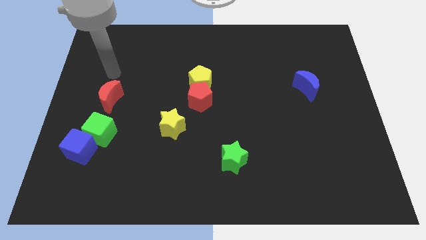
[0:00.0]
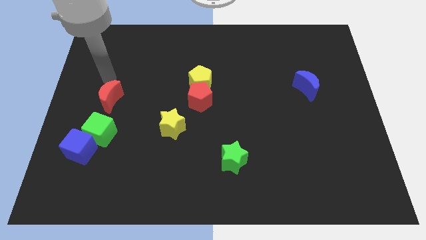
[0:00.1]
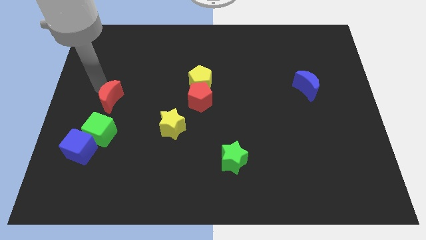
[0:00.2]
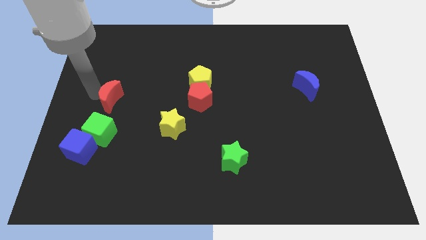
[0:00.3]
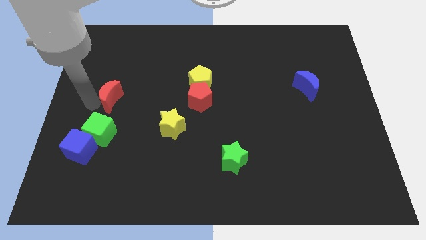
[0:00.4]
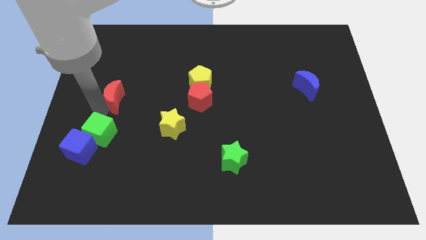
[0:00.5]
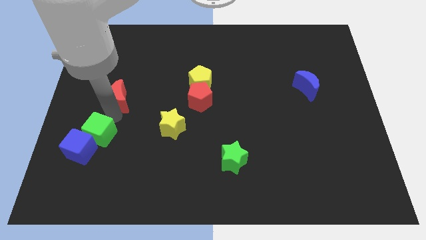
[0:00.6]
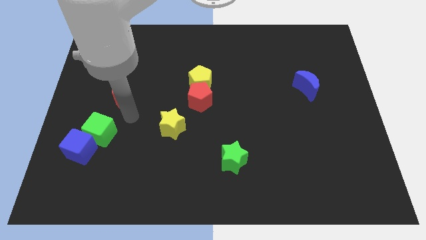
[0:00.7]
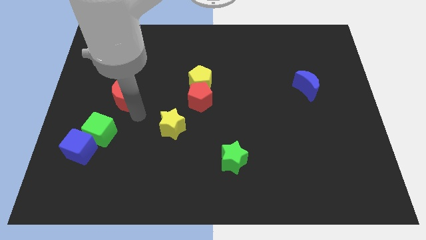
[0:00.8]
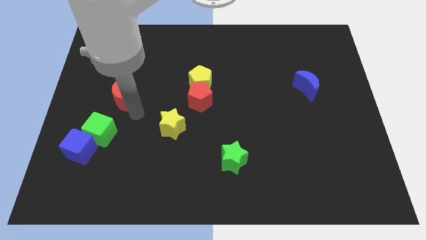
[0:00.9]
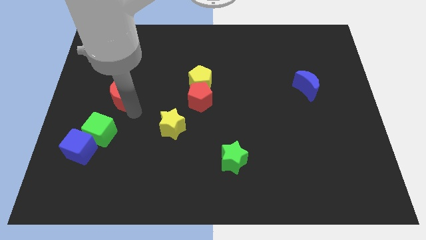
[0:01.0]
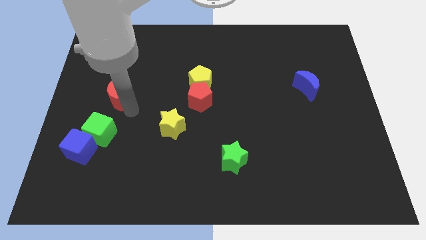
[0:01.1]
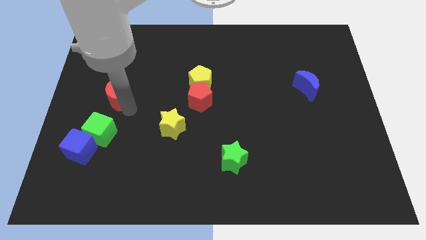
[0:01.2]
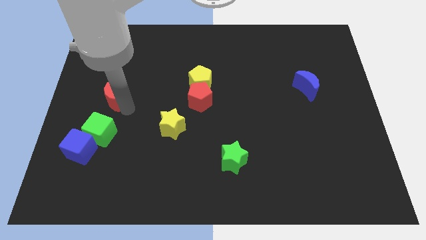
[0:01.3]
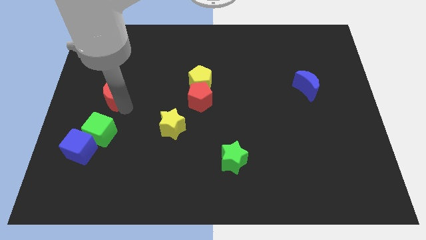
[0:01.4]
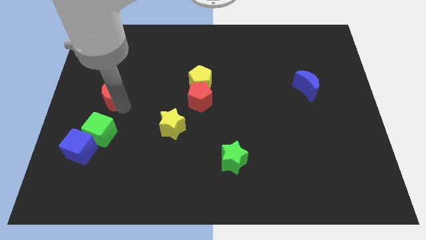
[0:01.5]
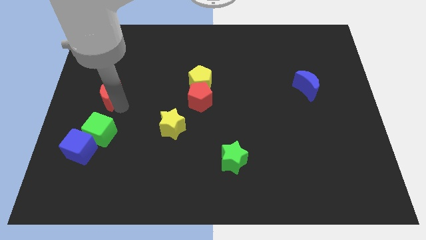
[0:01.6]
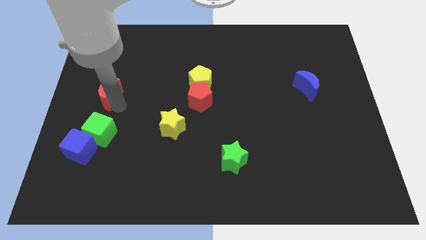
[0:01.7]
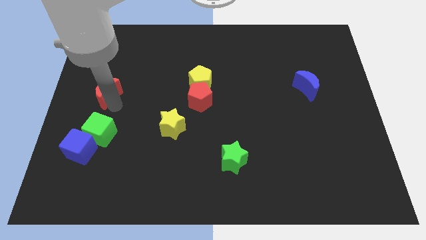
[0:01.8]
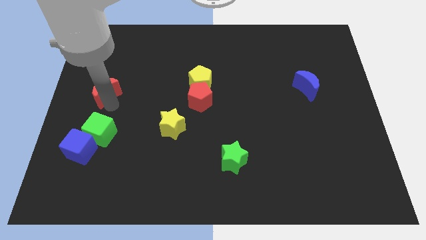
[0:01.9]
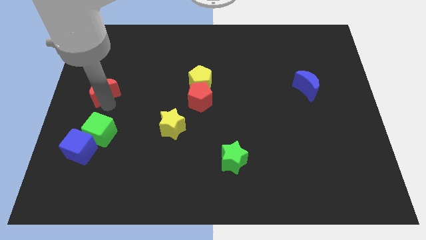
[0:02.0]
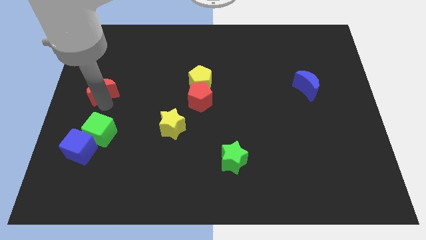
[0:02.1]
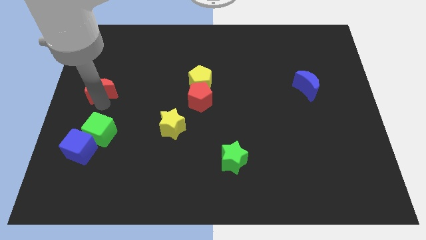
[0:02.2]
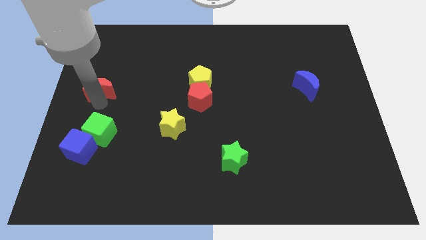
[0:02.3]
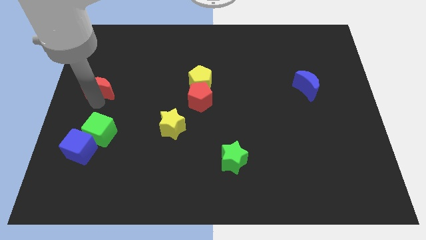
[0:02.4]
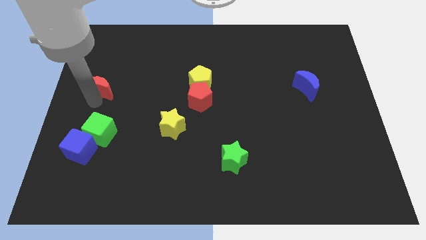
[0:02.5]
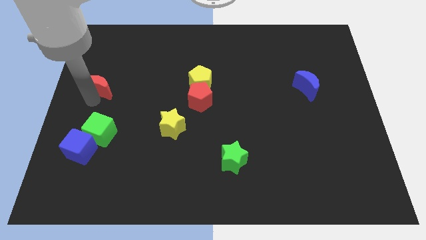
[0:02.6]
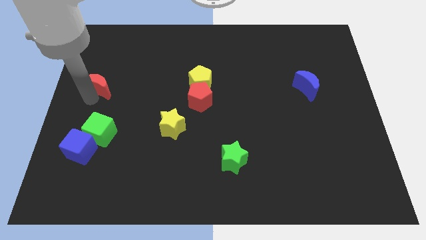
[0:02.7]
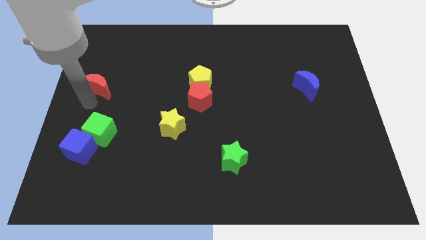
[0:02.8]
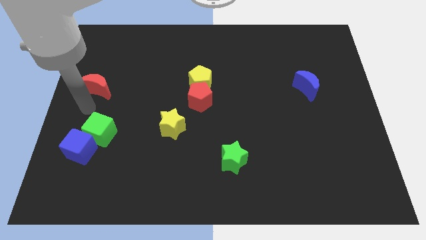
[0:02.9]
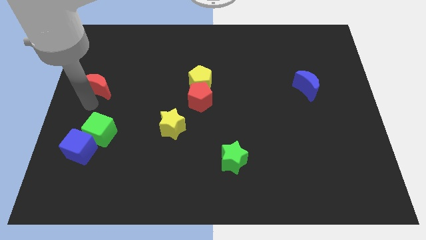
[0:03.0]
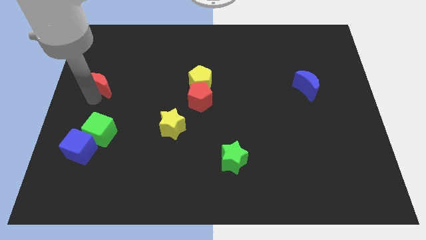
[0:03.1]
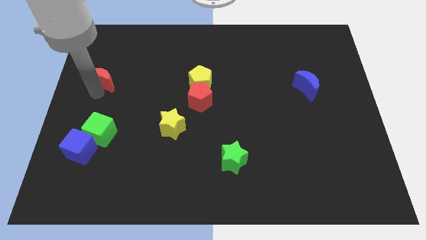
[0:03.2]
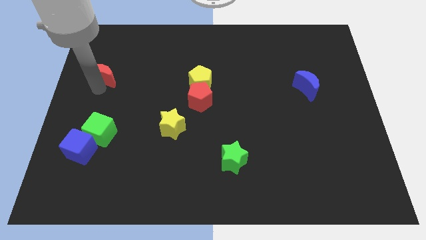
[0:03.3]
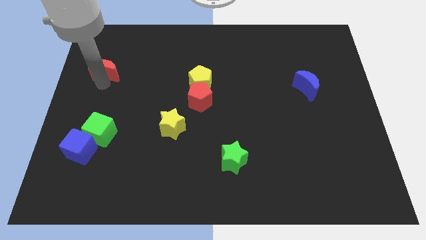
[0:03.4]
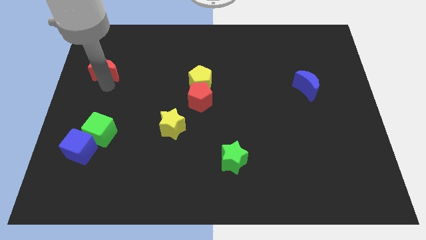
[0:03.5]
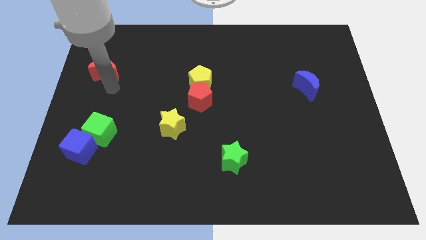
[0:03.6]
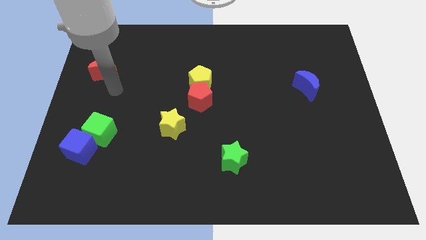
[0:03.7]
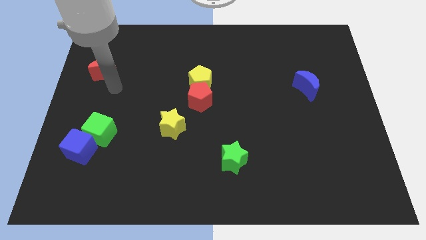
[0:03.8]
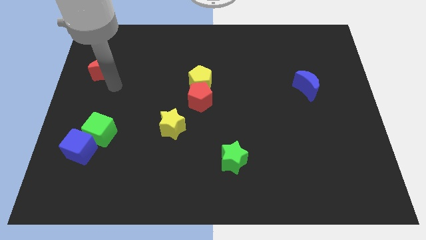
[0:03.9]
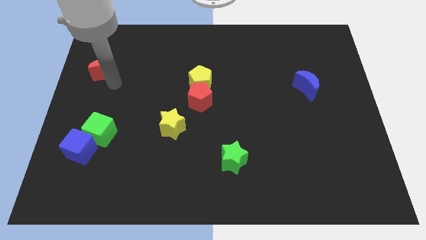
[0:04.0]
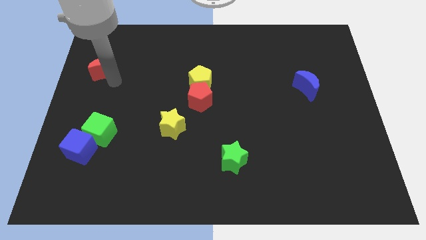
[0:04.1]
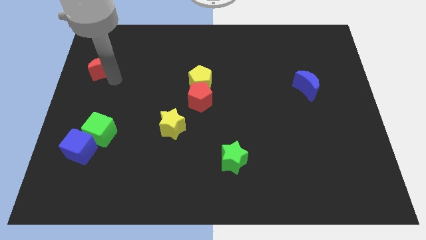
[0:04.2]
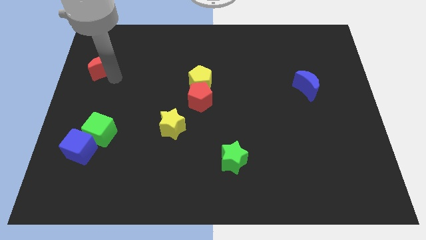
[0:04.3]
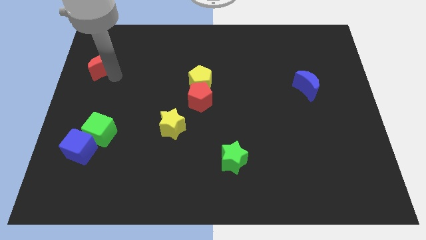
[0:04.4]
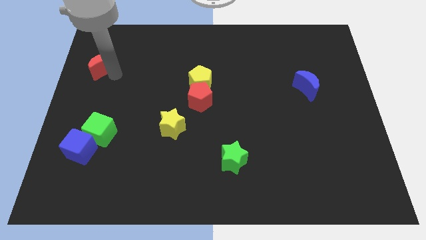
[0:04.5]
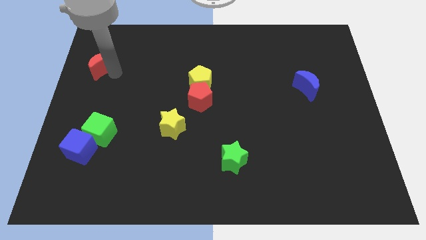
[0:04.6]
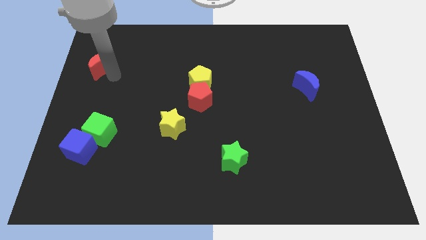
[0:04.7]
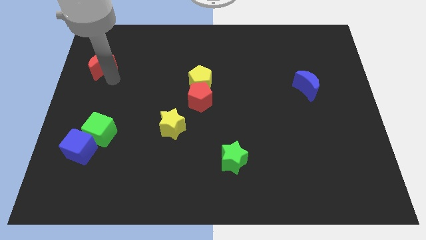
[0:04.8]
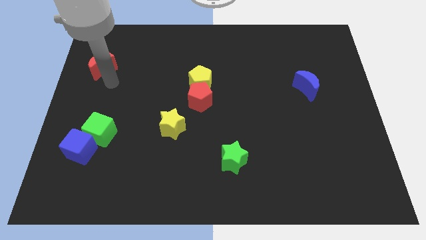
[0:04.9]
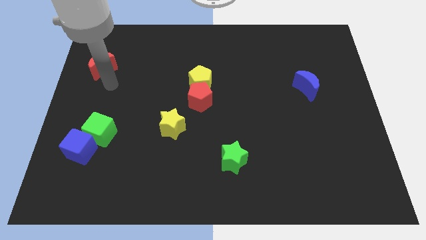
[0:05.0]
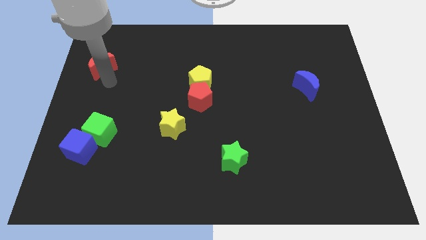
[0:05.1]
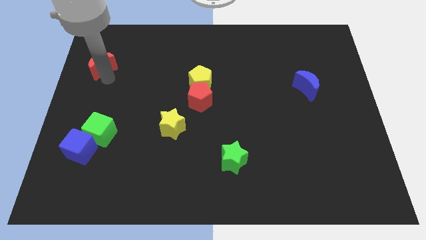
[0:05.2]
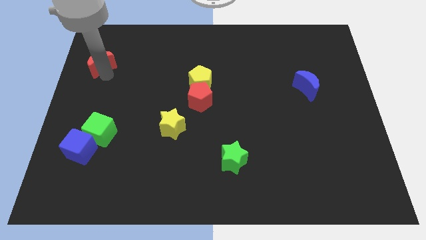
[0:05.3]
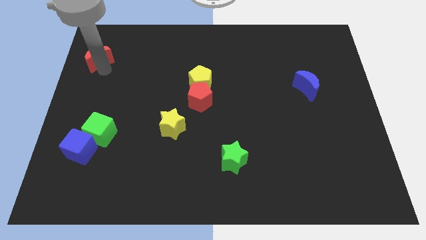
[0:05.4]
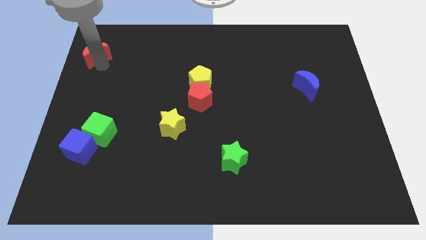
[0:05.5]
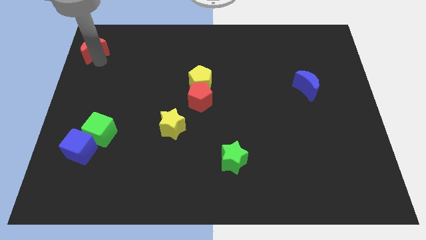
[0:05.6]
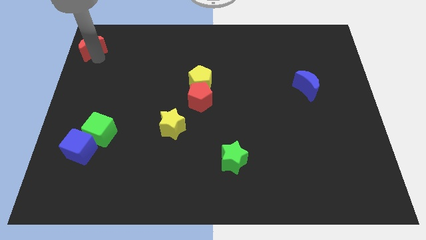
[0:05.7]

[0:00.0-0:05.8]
slide the red moon to the top left corner

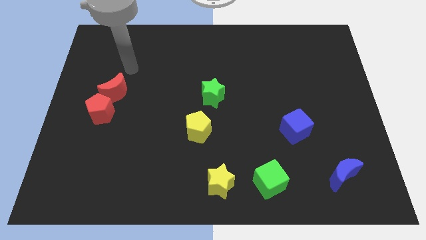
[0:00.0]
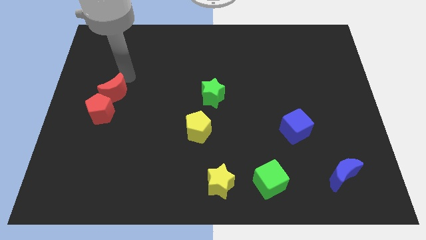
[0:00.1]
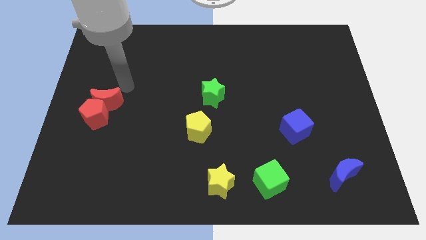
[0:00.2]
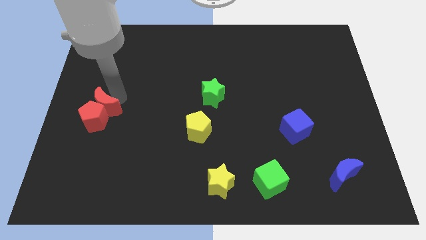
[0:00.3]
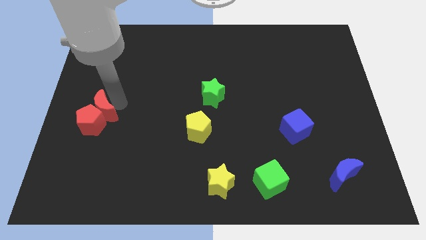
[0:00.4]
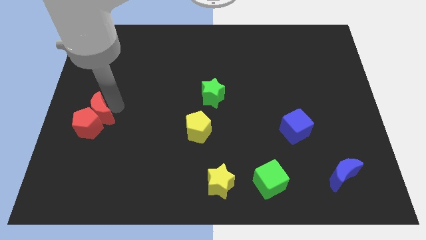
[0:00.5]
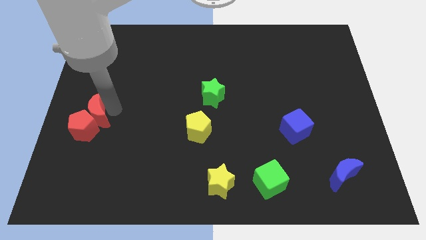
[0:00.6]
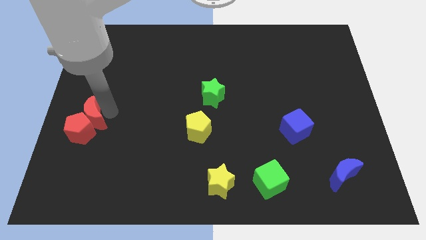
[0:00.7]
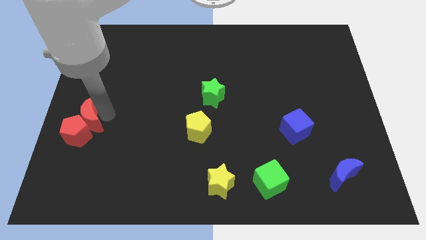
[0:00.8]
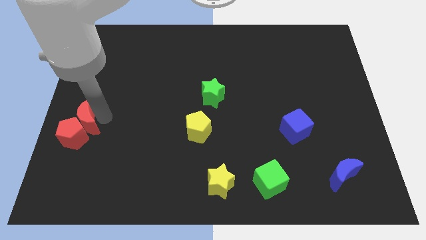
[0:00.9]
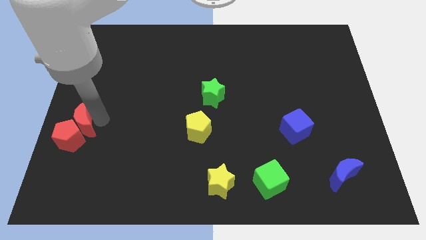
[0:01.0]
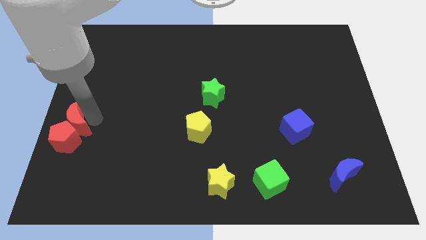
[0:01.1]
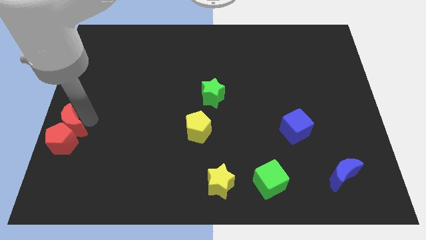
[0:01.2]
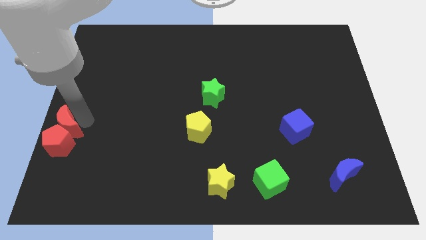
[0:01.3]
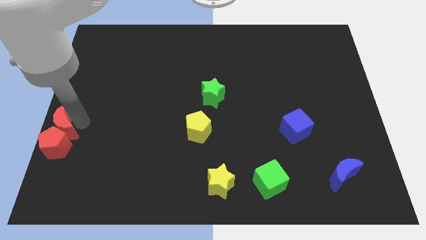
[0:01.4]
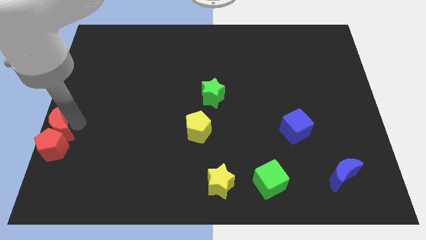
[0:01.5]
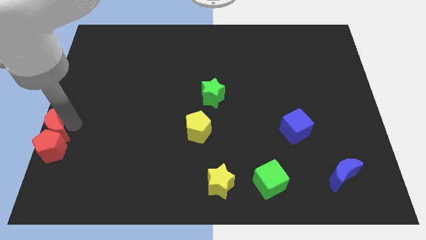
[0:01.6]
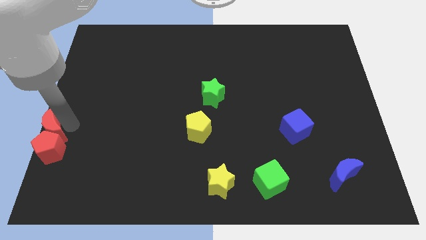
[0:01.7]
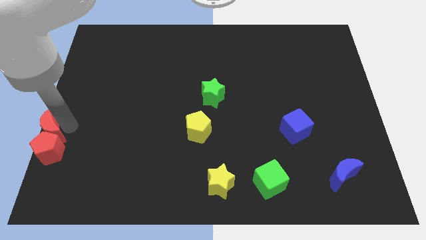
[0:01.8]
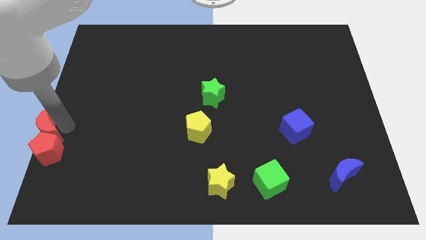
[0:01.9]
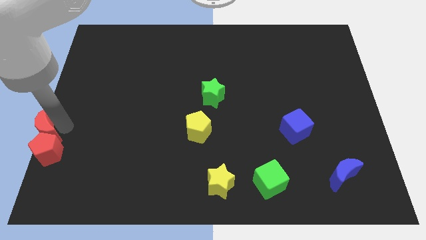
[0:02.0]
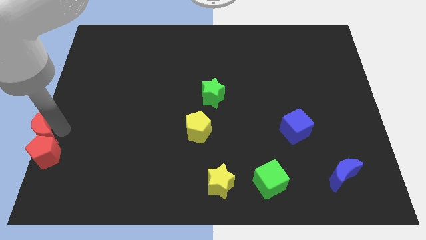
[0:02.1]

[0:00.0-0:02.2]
push the red pentagon to the bottom left

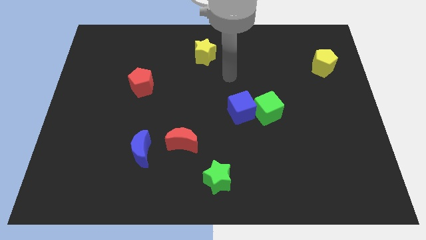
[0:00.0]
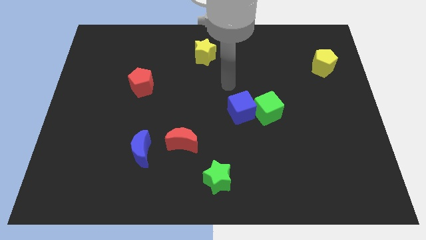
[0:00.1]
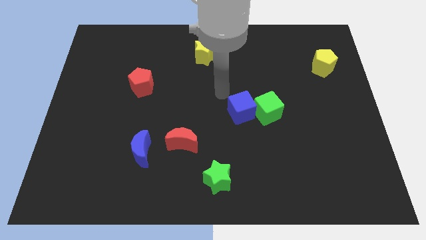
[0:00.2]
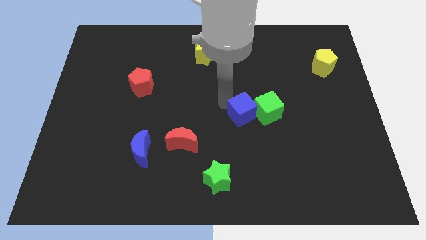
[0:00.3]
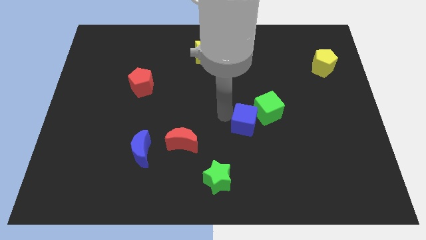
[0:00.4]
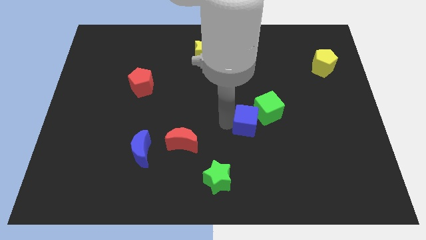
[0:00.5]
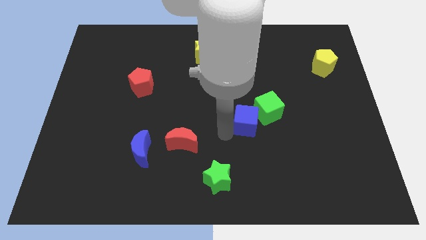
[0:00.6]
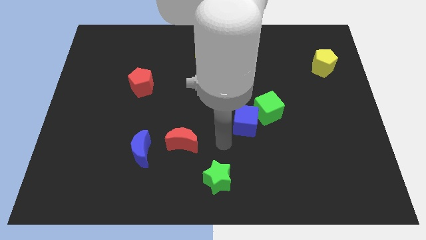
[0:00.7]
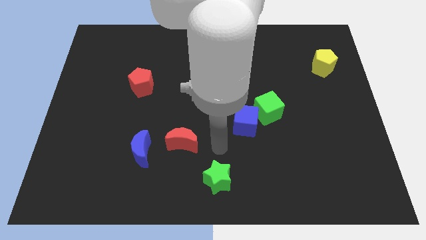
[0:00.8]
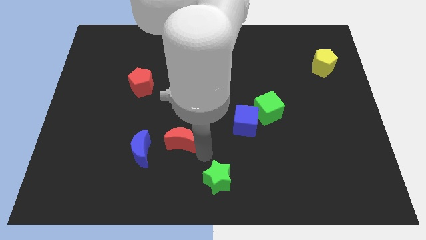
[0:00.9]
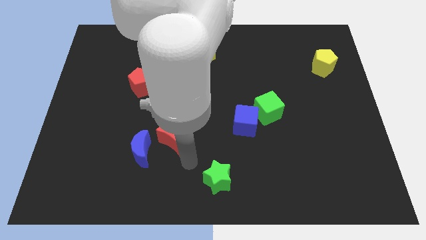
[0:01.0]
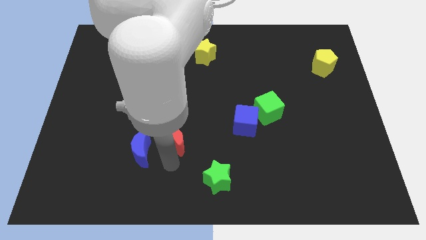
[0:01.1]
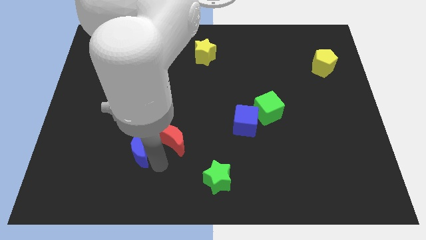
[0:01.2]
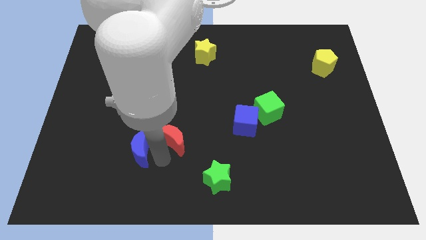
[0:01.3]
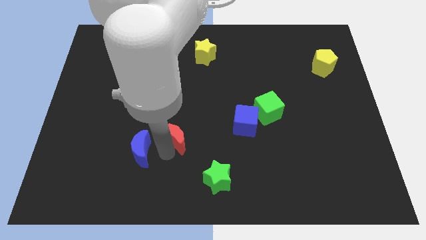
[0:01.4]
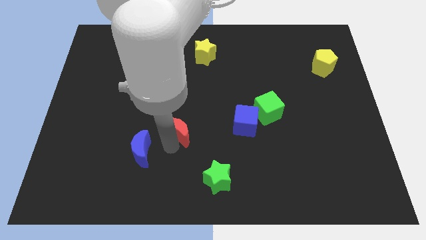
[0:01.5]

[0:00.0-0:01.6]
slide the red moon to the center of the board
